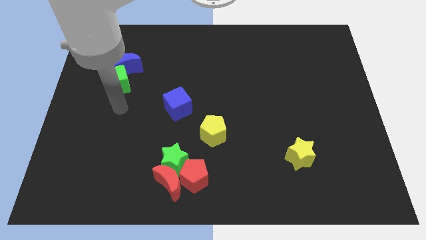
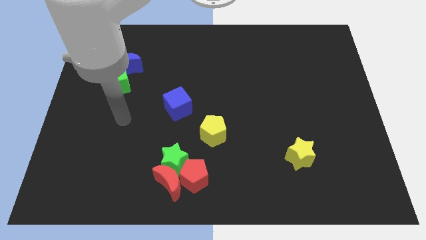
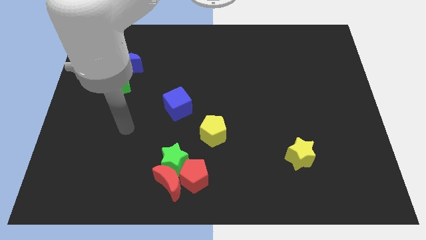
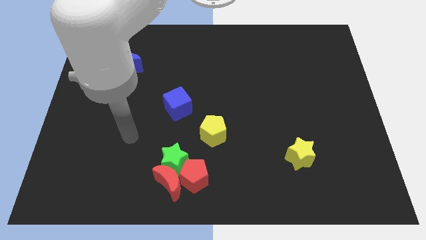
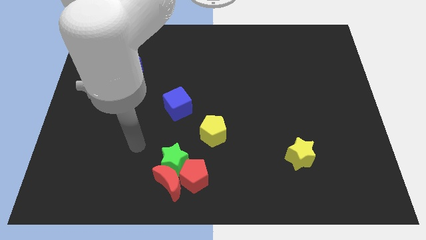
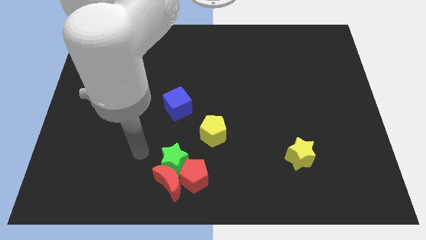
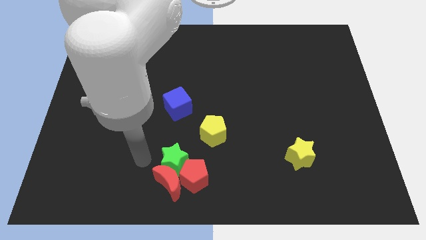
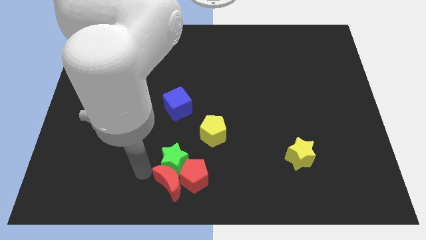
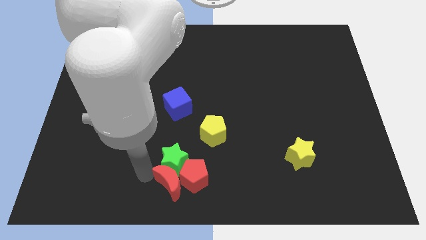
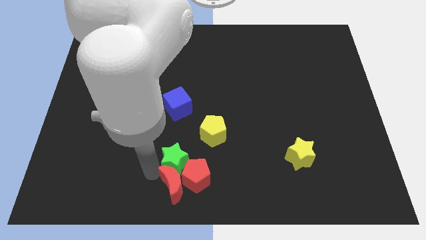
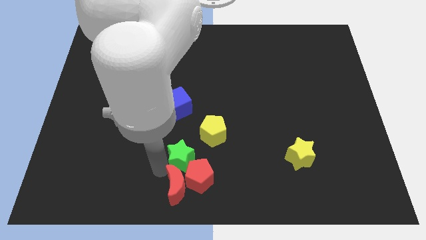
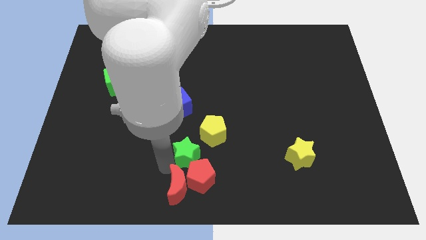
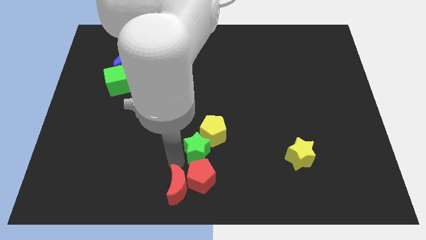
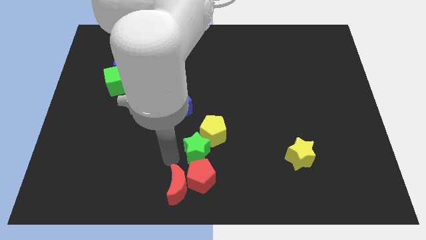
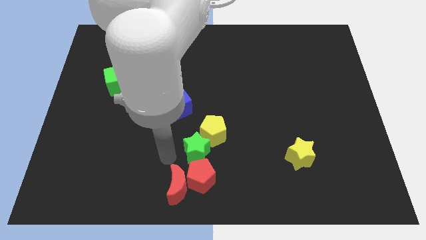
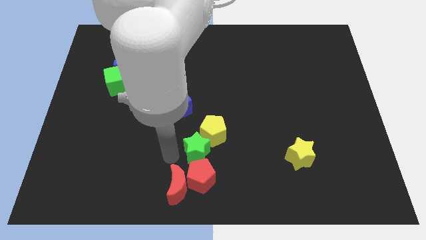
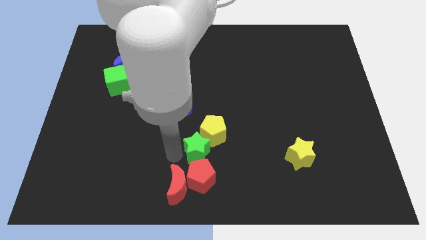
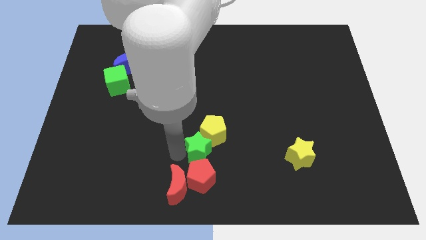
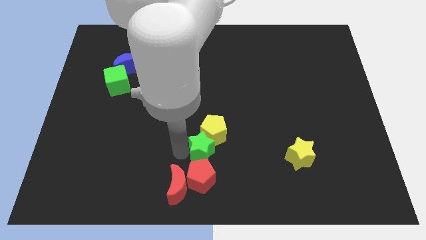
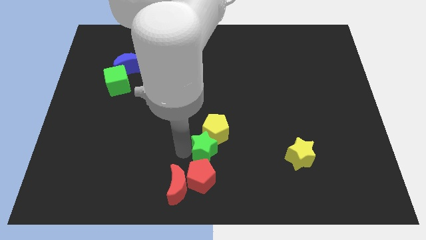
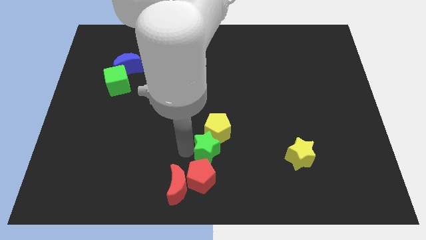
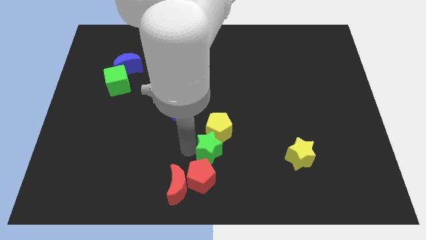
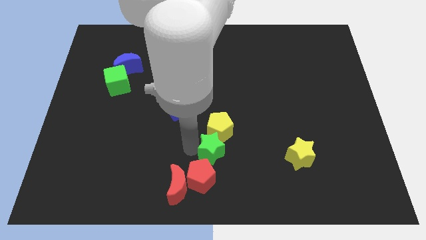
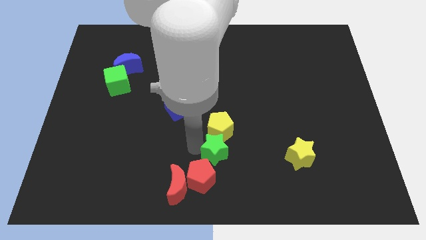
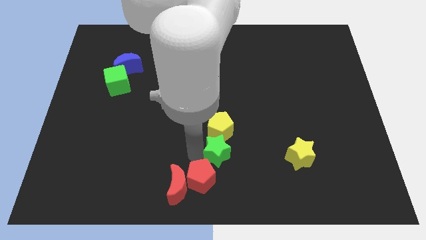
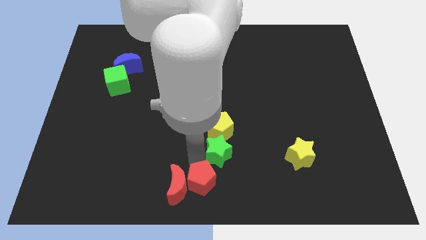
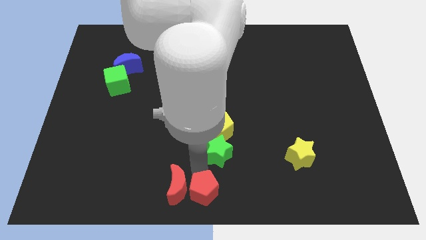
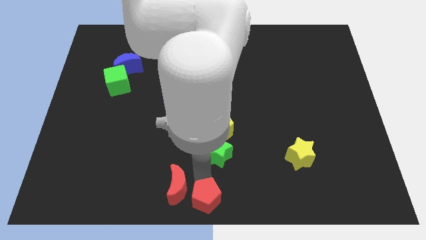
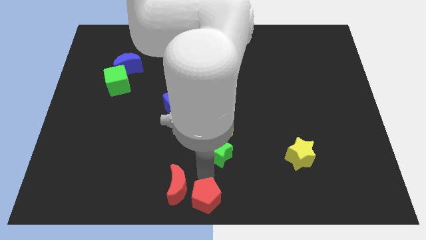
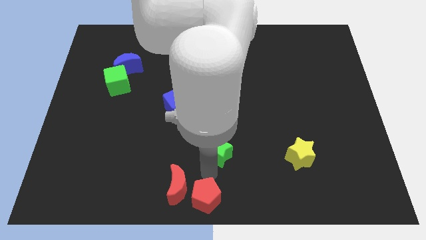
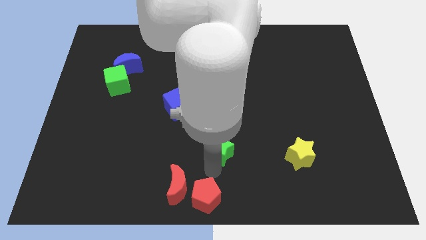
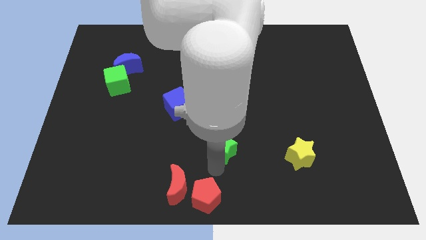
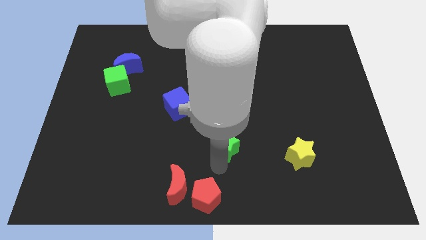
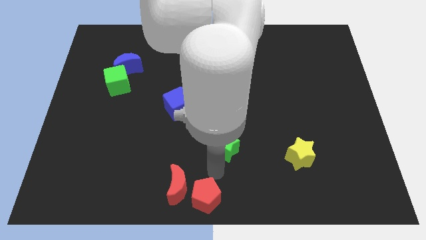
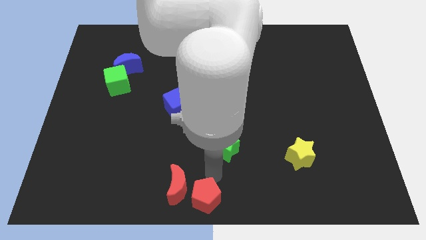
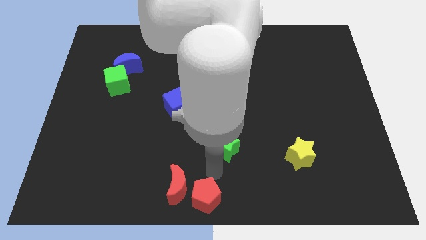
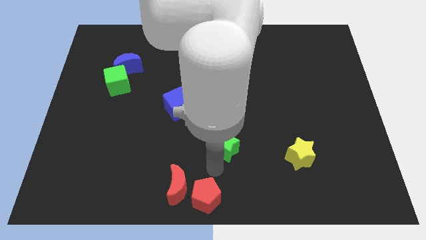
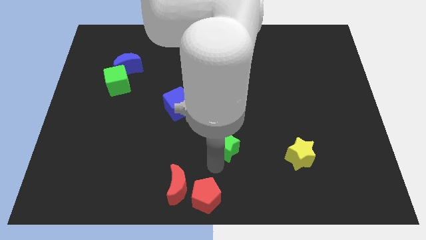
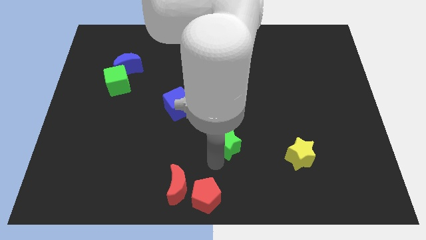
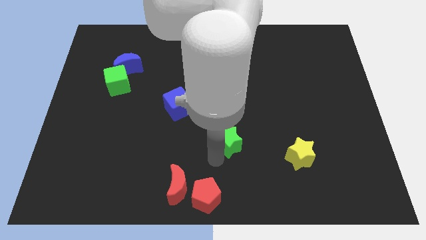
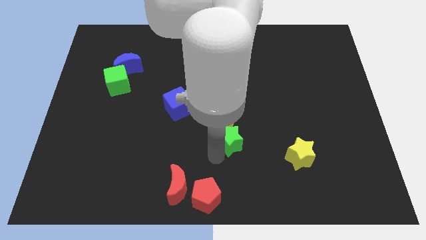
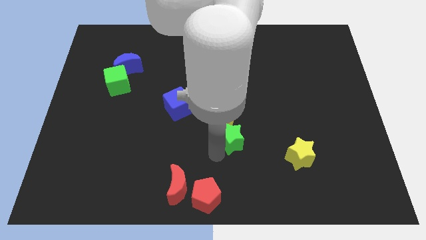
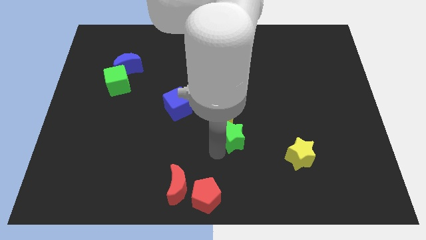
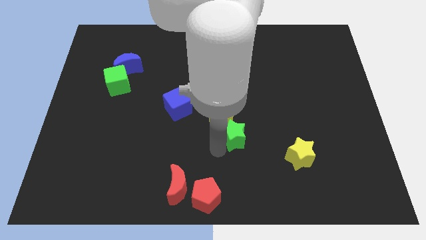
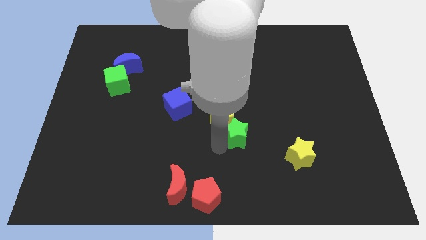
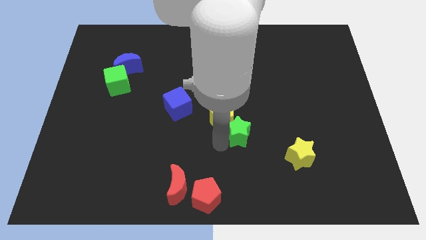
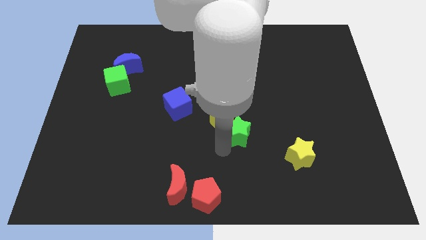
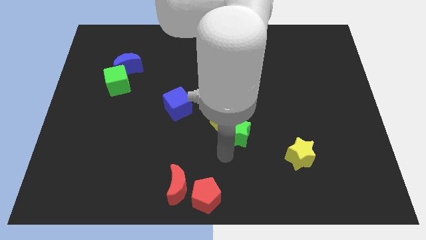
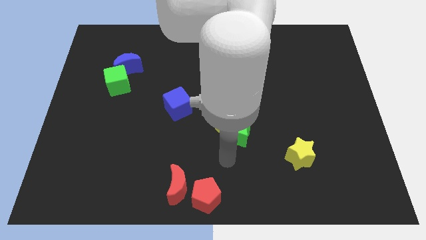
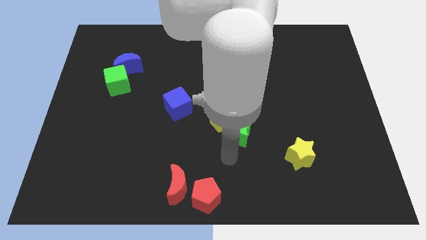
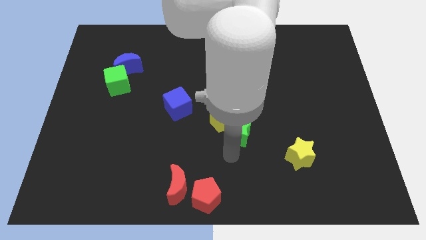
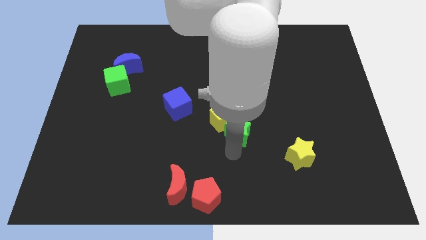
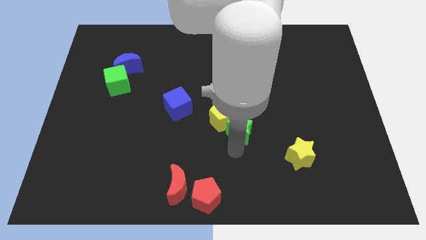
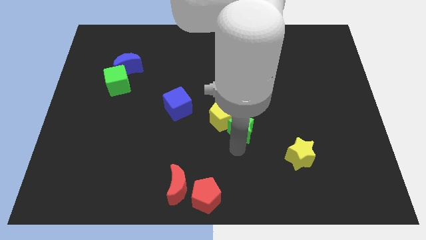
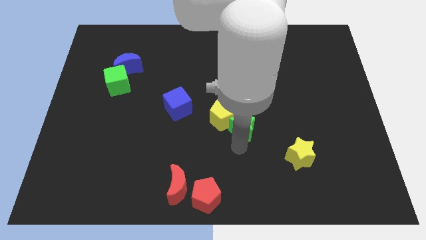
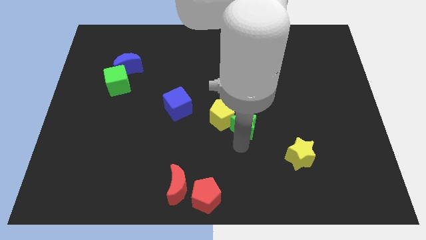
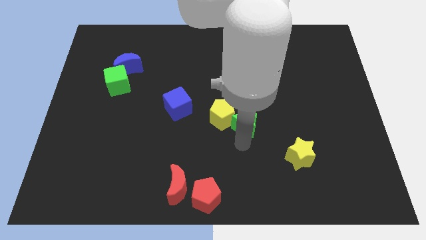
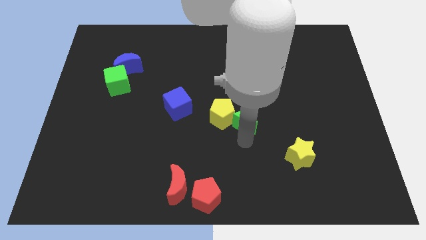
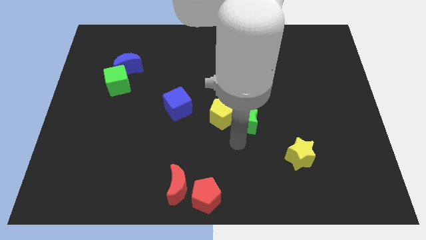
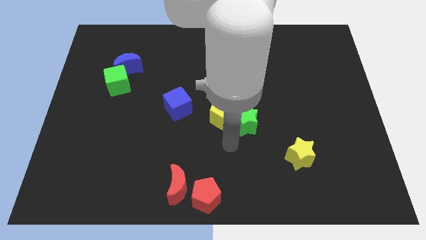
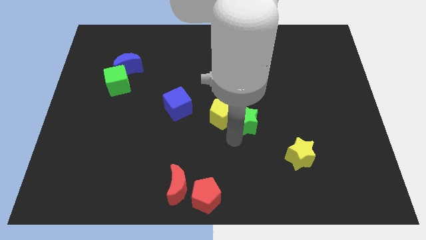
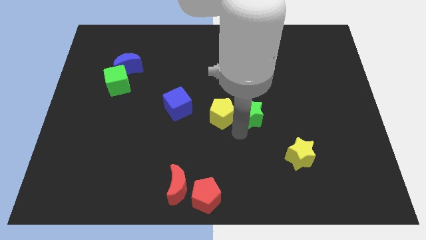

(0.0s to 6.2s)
push the green star upwards and then right

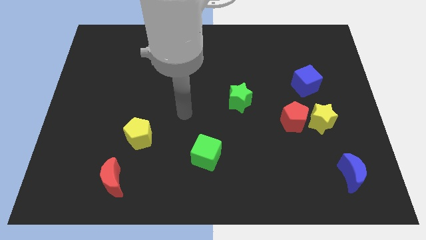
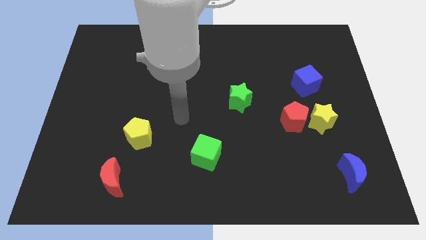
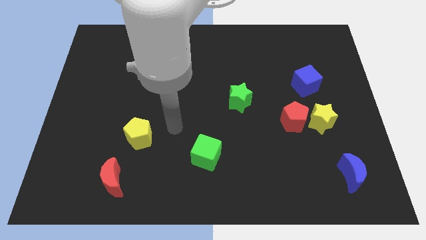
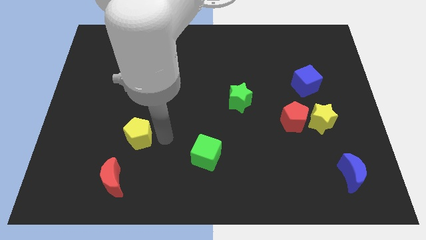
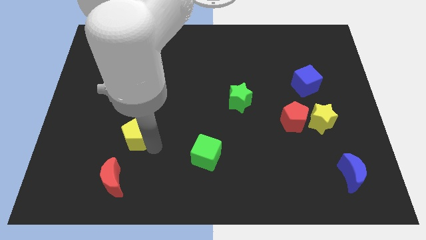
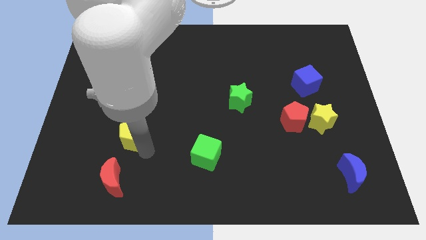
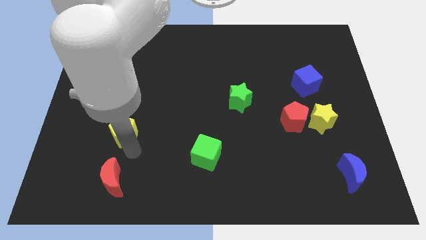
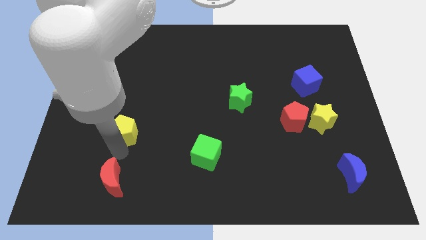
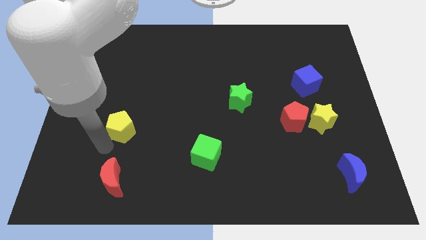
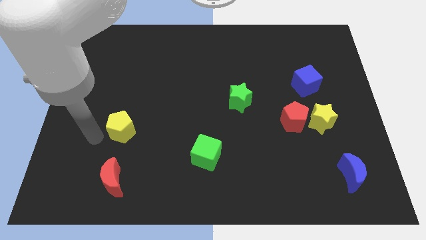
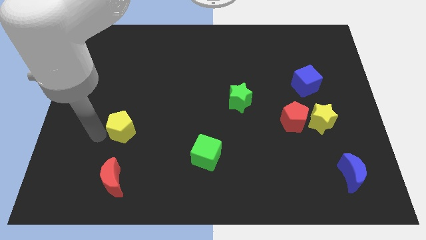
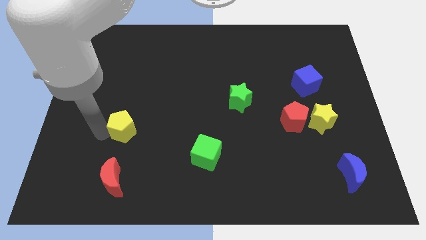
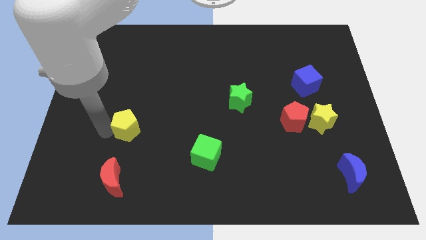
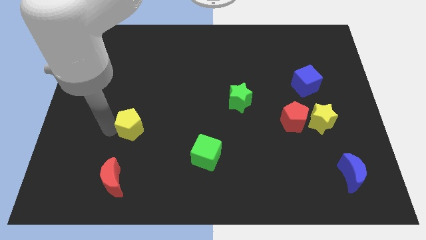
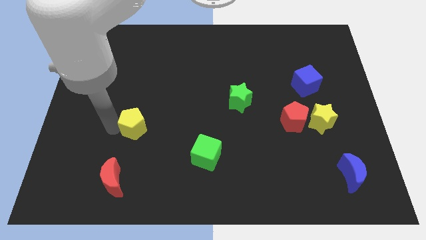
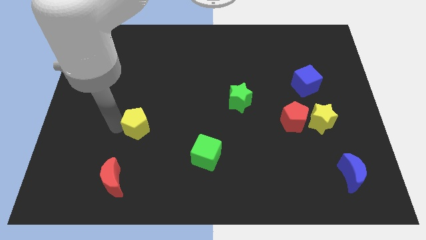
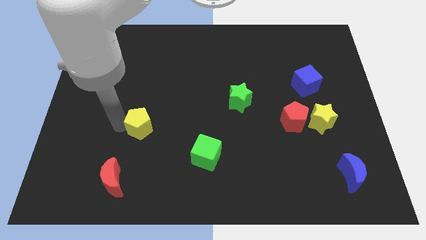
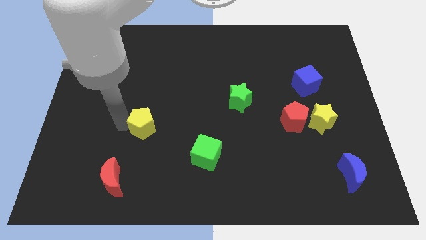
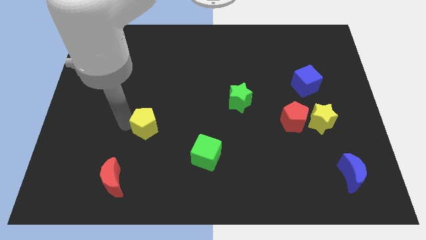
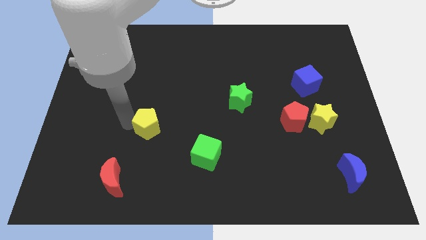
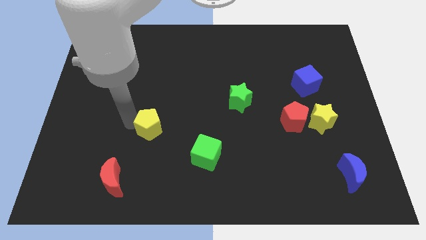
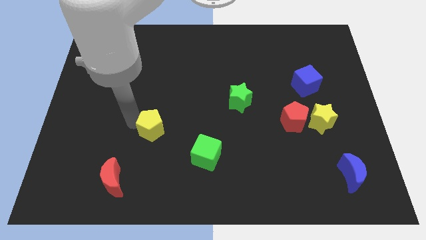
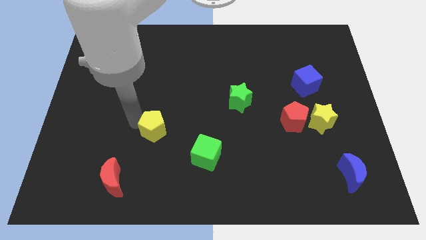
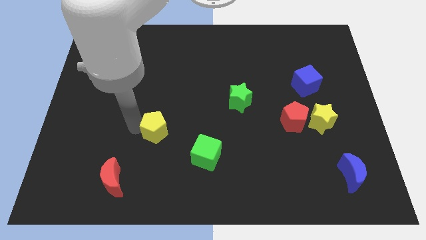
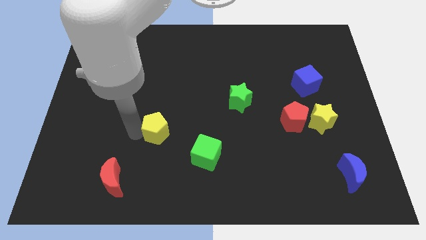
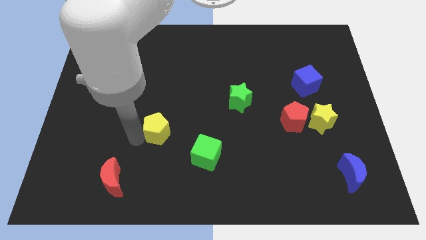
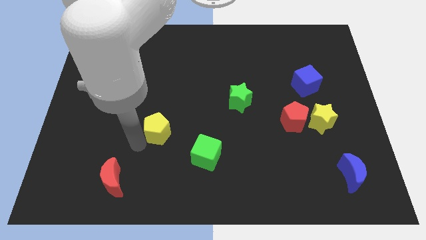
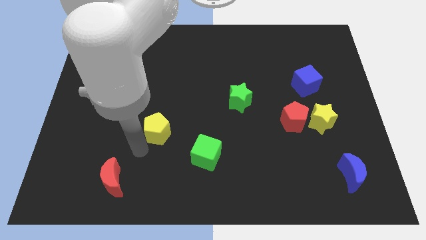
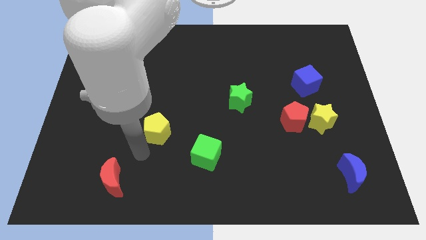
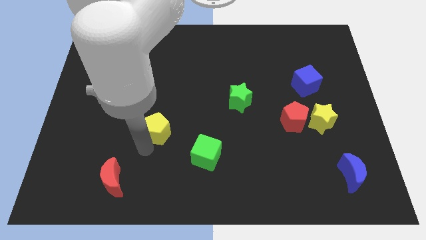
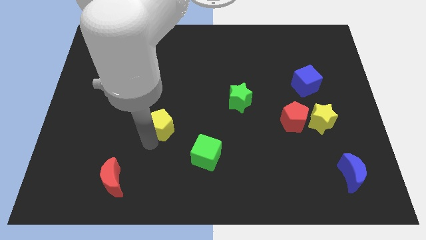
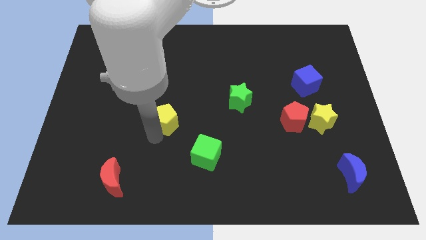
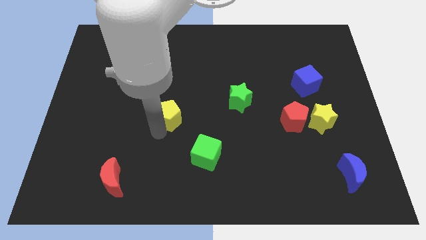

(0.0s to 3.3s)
slide the yellow pentagon up and right diagonally a little bit
